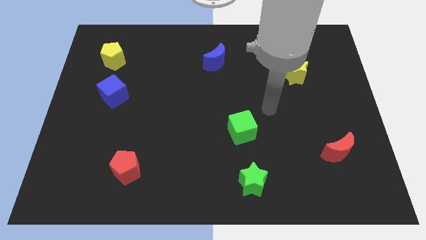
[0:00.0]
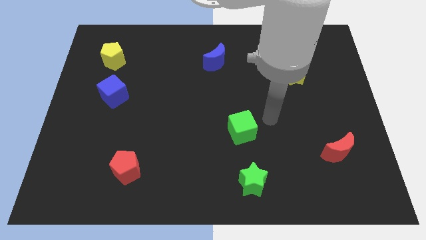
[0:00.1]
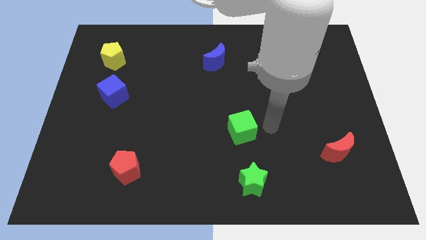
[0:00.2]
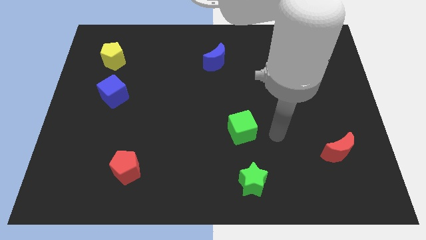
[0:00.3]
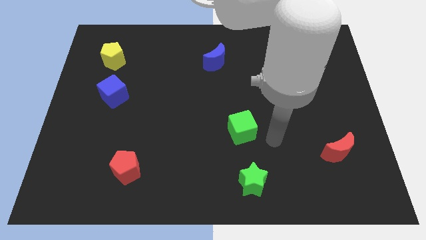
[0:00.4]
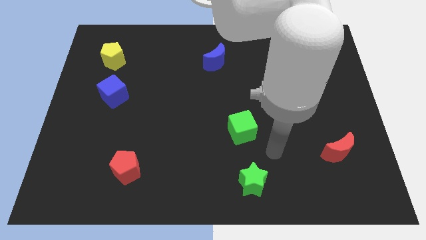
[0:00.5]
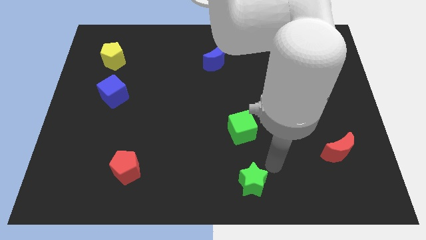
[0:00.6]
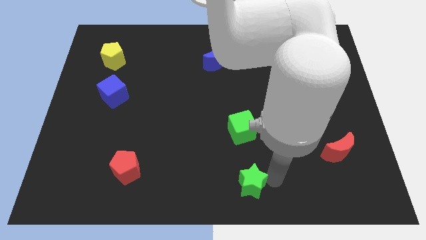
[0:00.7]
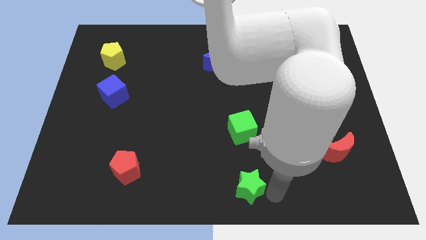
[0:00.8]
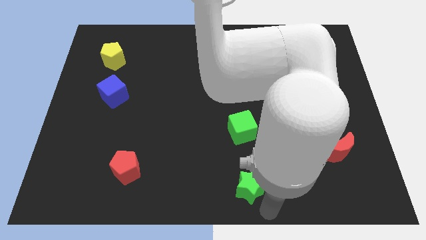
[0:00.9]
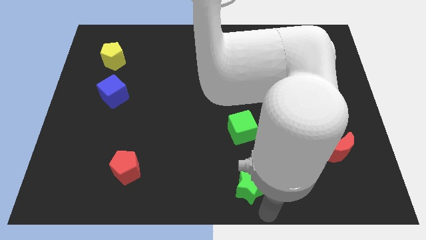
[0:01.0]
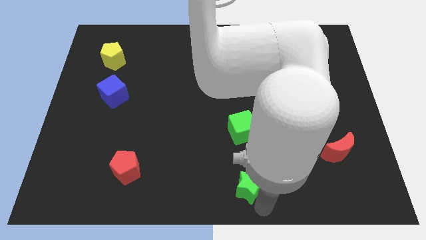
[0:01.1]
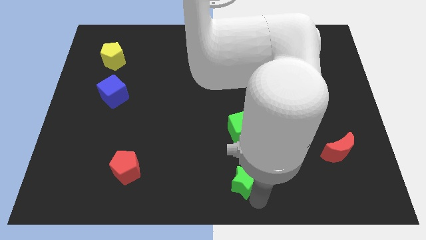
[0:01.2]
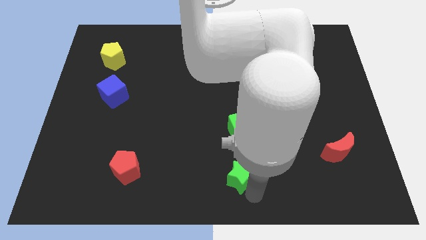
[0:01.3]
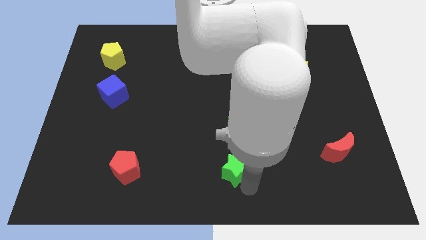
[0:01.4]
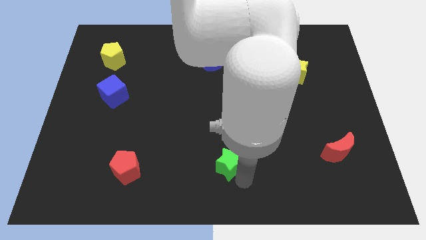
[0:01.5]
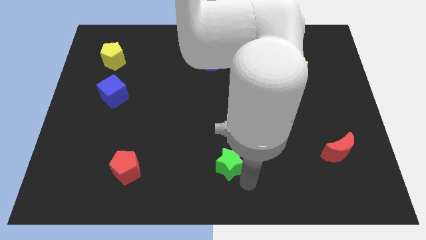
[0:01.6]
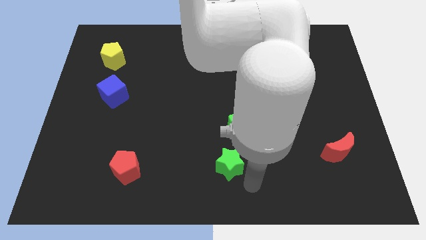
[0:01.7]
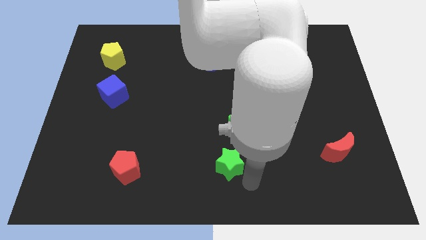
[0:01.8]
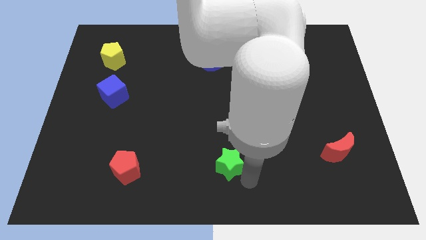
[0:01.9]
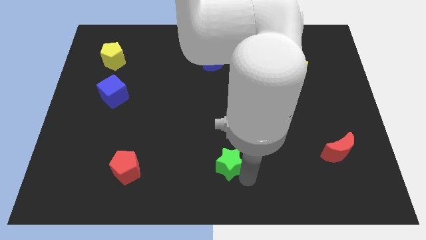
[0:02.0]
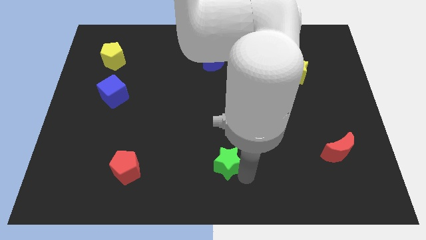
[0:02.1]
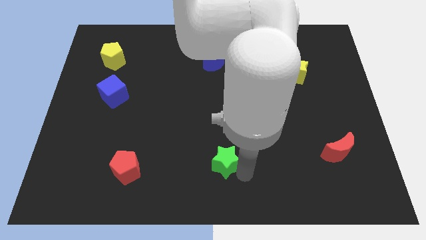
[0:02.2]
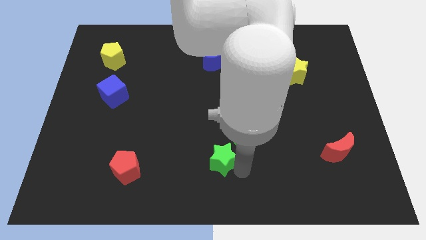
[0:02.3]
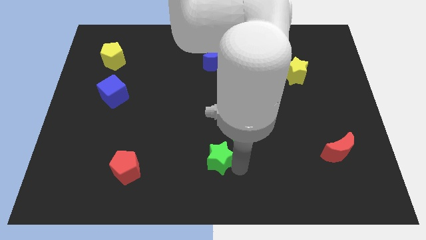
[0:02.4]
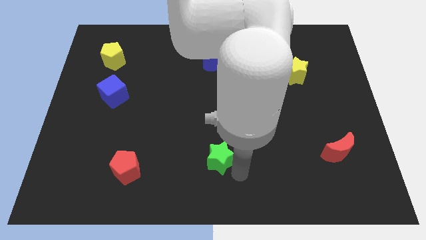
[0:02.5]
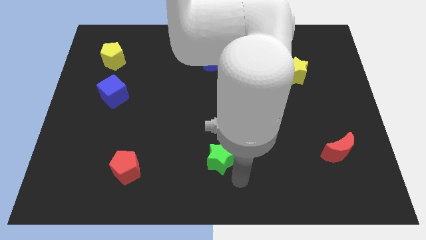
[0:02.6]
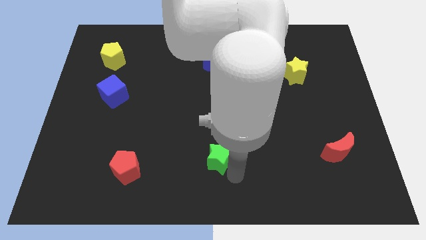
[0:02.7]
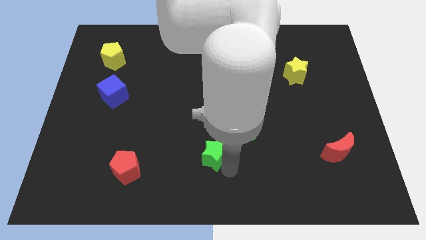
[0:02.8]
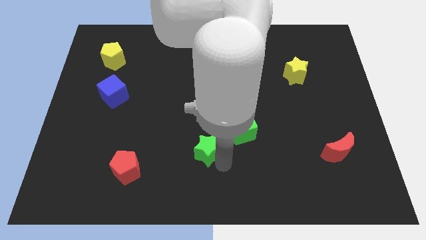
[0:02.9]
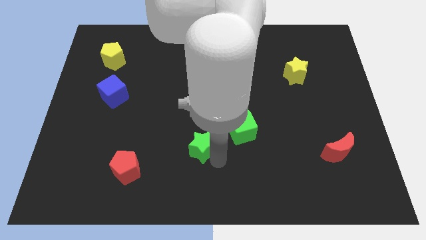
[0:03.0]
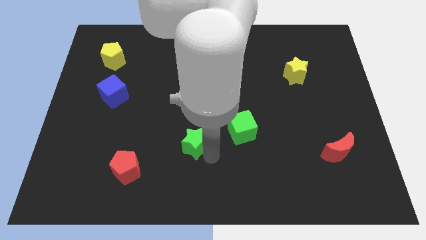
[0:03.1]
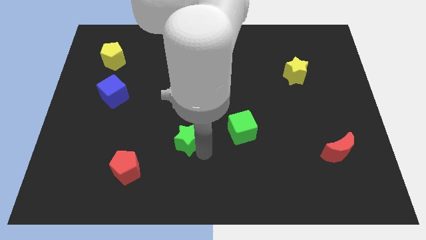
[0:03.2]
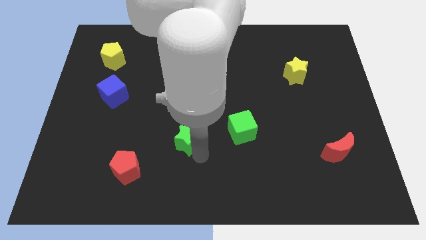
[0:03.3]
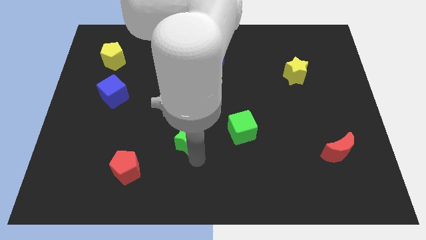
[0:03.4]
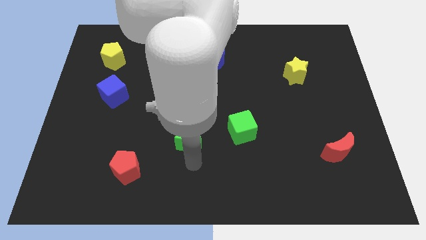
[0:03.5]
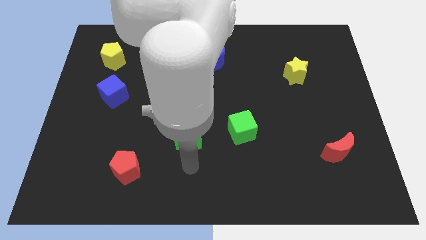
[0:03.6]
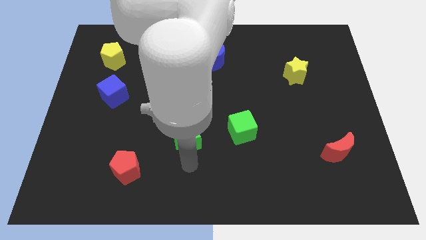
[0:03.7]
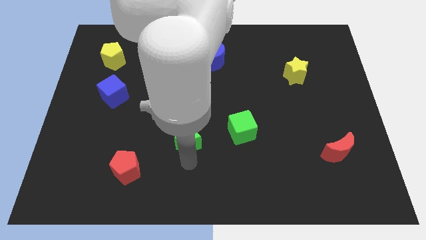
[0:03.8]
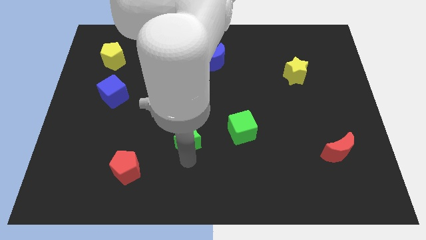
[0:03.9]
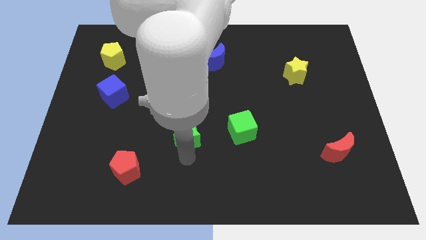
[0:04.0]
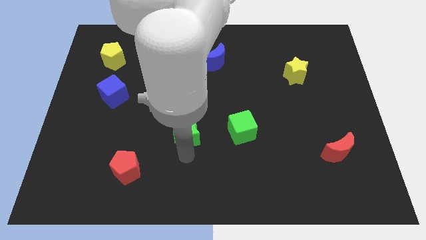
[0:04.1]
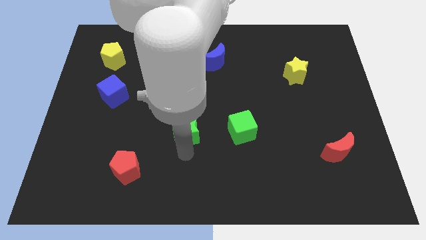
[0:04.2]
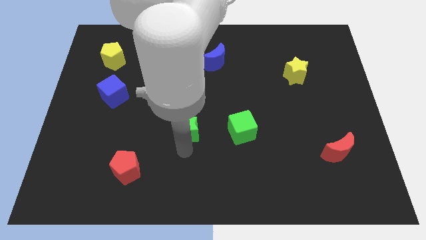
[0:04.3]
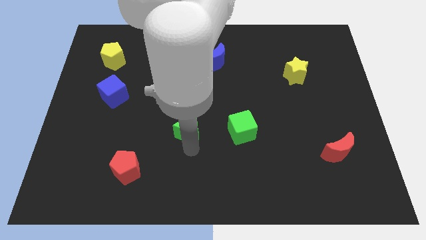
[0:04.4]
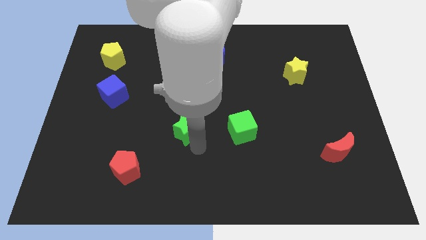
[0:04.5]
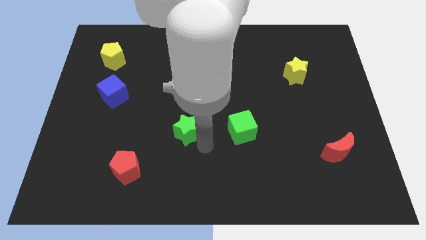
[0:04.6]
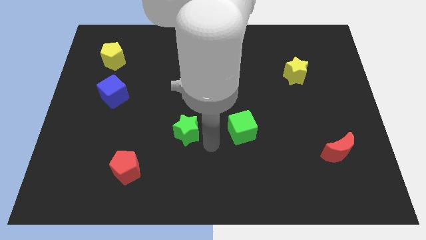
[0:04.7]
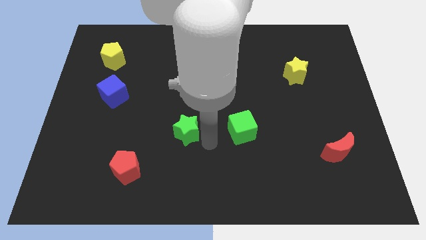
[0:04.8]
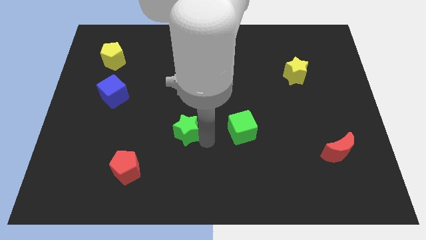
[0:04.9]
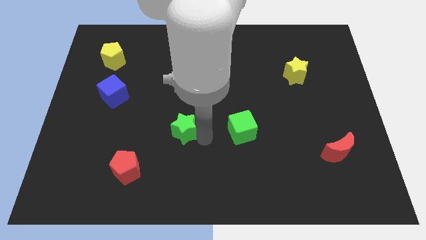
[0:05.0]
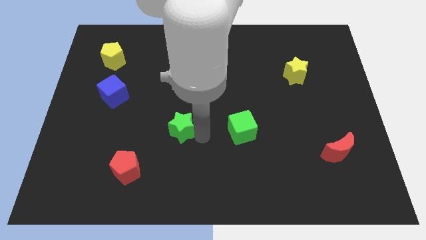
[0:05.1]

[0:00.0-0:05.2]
slide the green star up and left

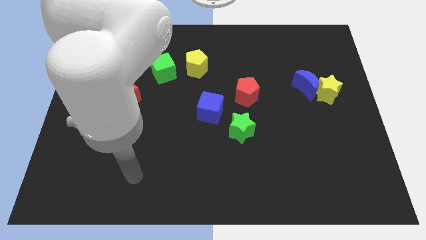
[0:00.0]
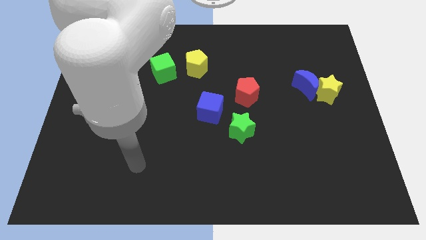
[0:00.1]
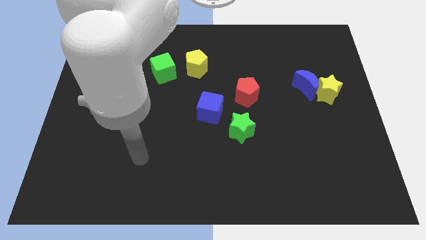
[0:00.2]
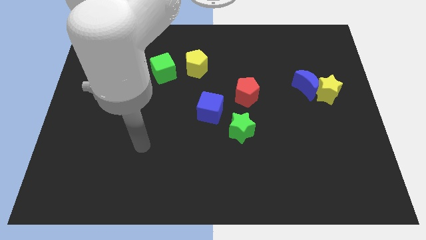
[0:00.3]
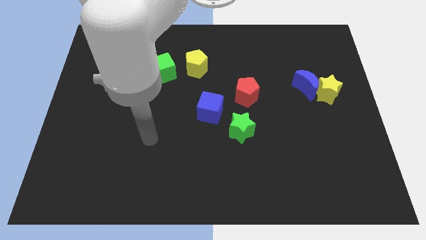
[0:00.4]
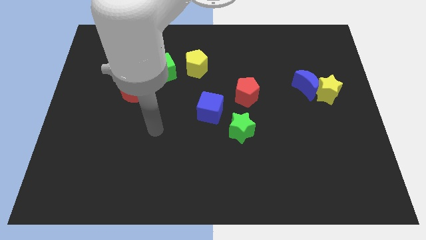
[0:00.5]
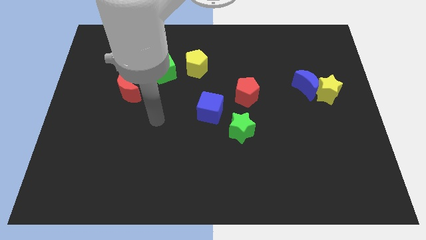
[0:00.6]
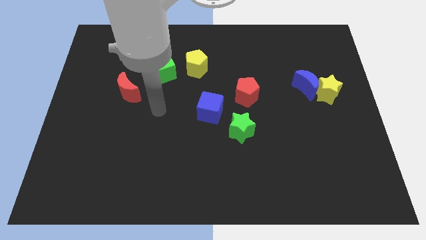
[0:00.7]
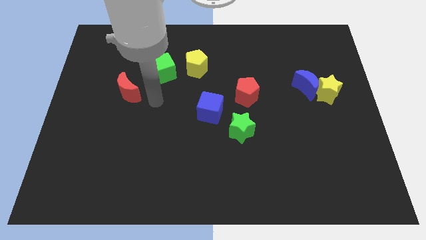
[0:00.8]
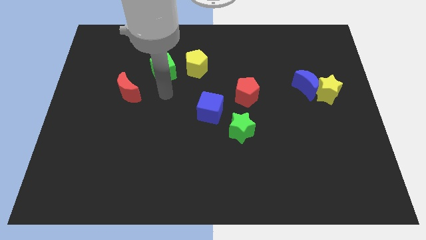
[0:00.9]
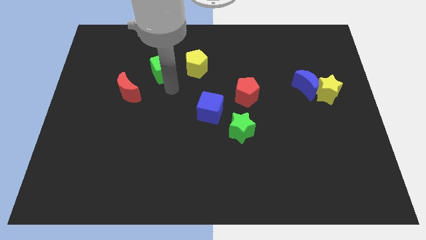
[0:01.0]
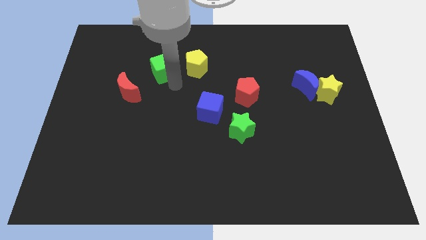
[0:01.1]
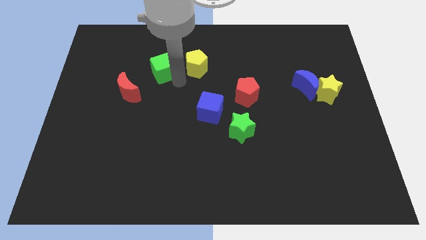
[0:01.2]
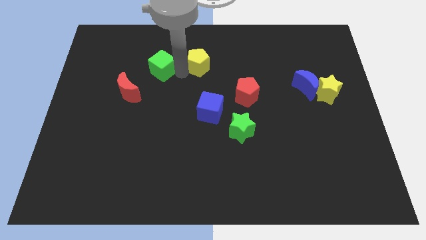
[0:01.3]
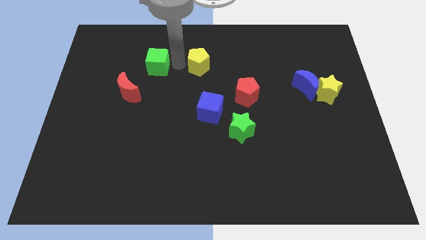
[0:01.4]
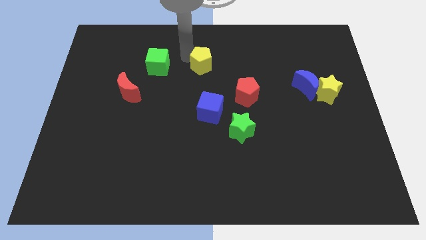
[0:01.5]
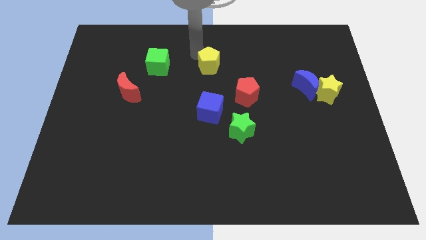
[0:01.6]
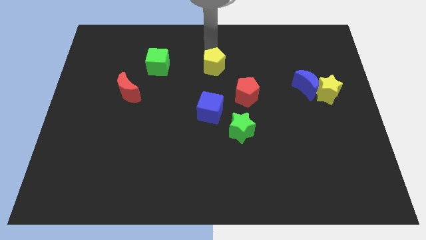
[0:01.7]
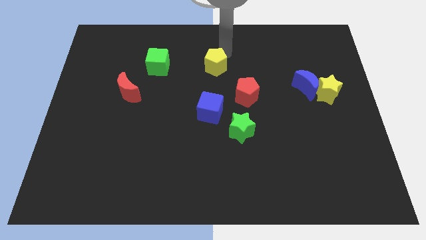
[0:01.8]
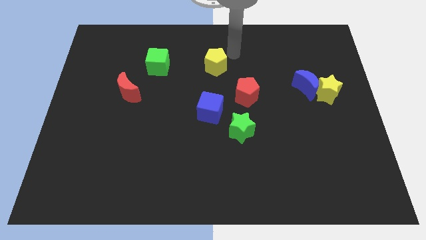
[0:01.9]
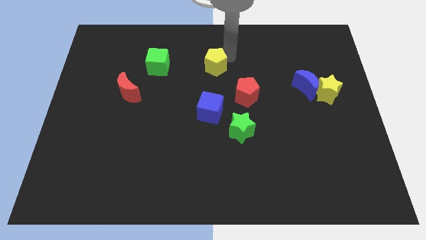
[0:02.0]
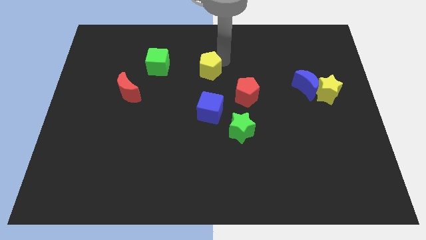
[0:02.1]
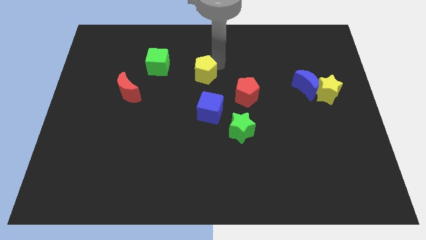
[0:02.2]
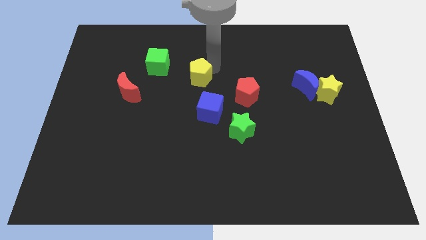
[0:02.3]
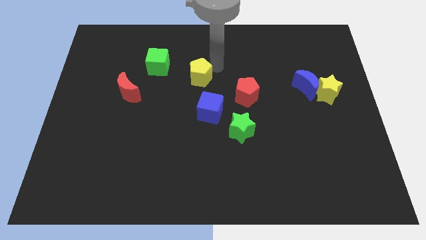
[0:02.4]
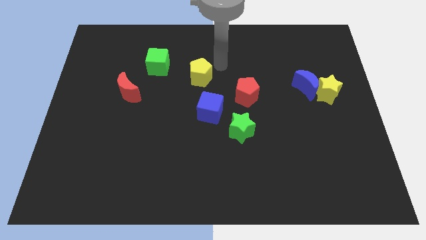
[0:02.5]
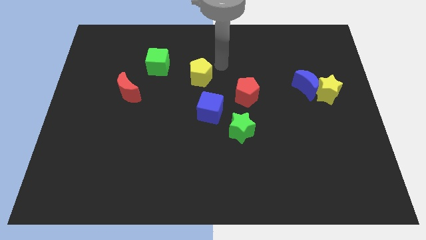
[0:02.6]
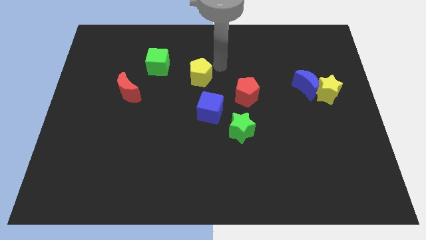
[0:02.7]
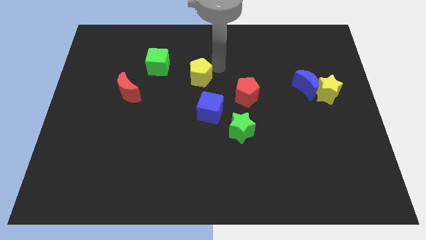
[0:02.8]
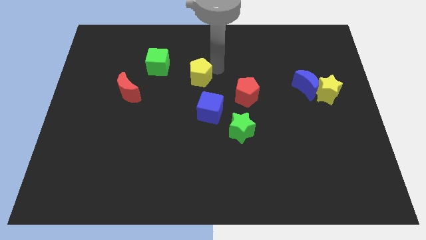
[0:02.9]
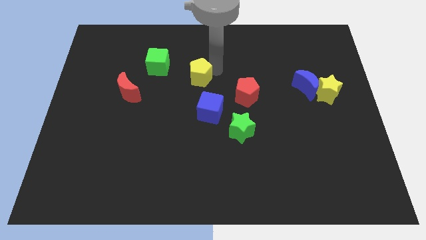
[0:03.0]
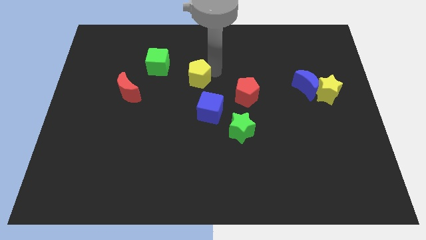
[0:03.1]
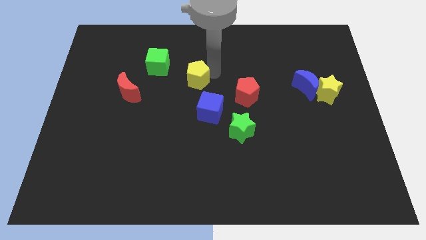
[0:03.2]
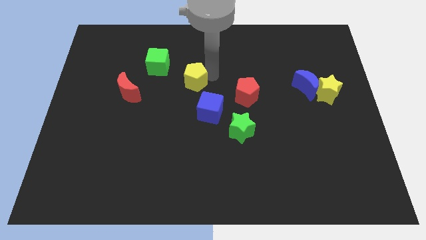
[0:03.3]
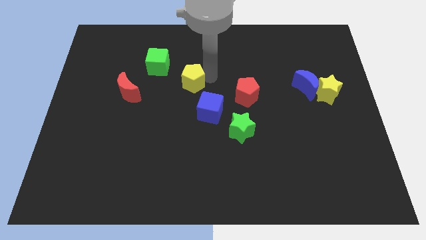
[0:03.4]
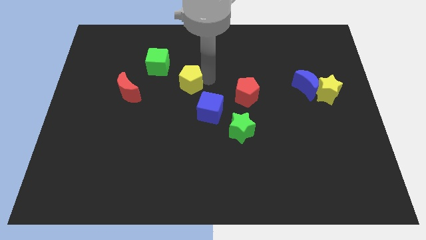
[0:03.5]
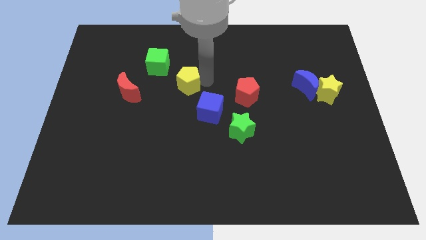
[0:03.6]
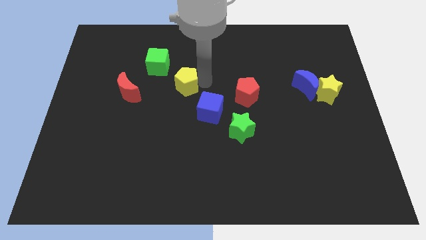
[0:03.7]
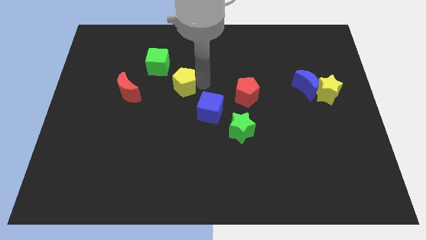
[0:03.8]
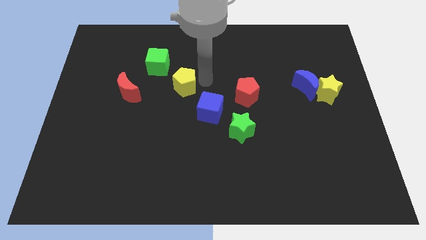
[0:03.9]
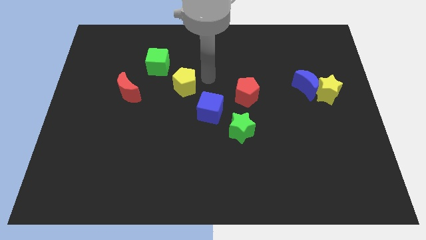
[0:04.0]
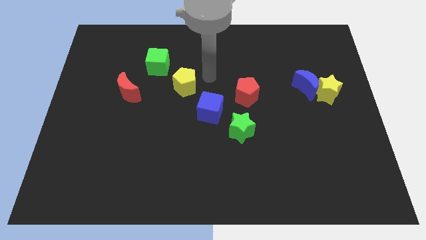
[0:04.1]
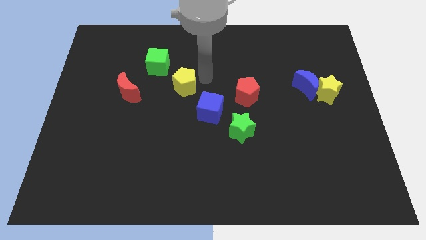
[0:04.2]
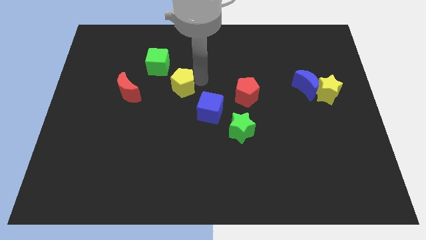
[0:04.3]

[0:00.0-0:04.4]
move the yellow pentagon a bit down and then left
